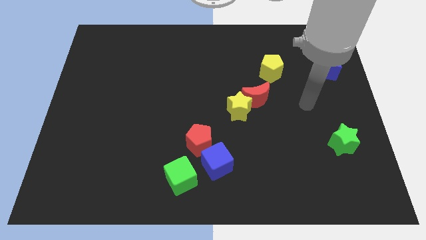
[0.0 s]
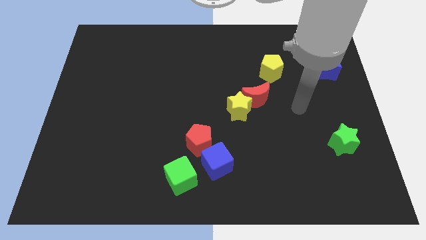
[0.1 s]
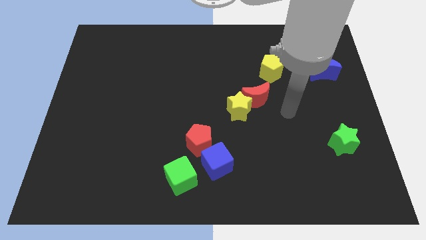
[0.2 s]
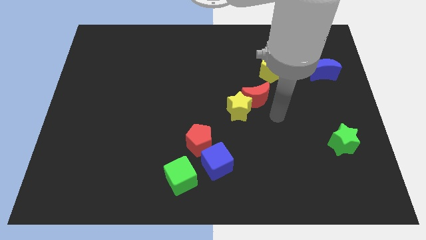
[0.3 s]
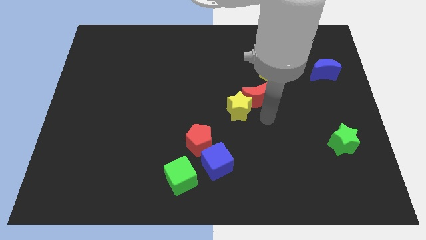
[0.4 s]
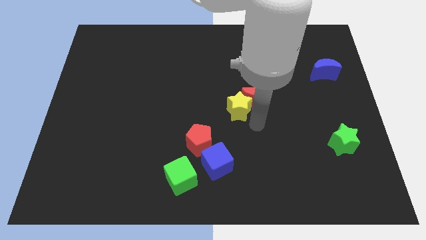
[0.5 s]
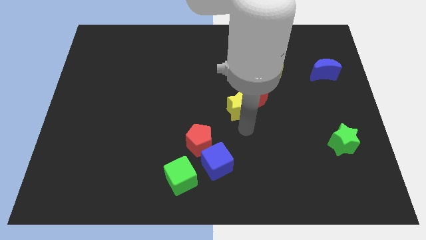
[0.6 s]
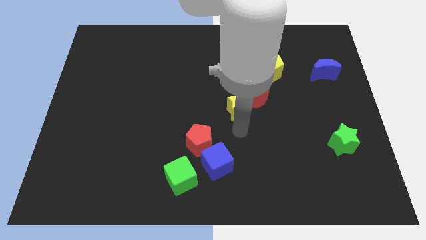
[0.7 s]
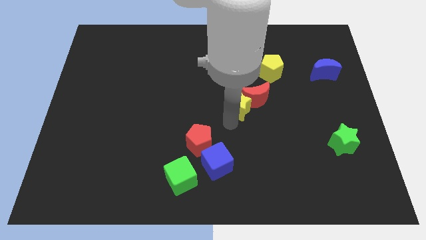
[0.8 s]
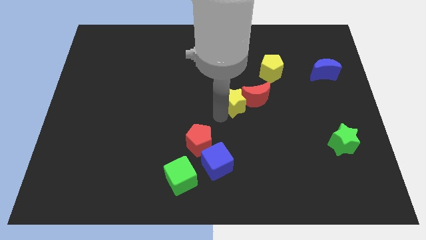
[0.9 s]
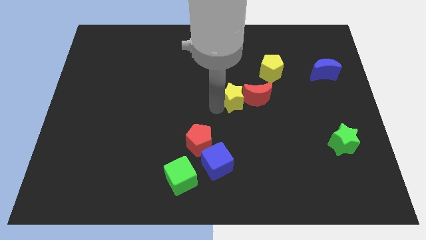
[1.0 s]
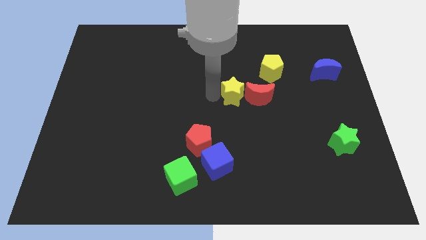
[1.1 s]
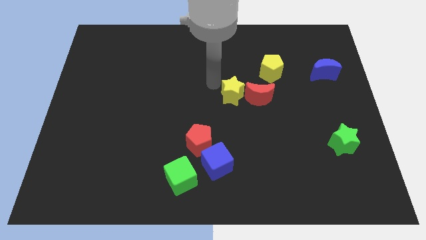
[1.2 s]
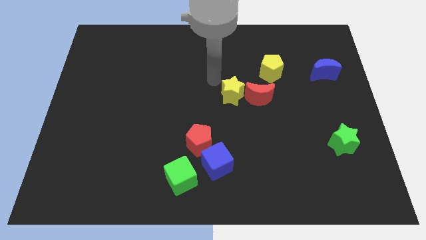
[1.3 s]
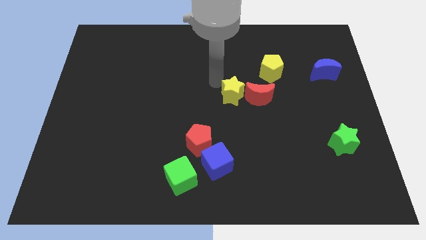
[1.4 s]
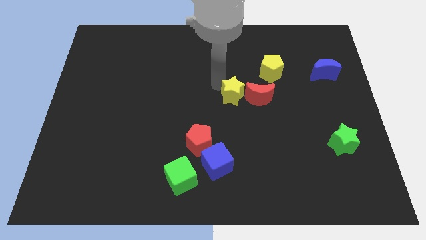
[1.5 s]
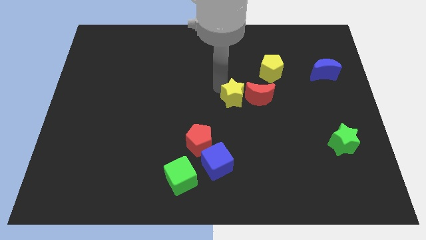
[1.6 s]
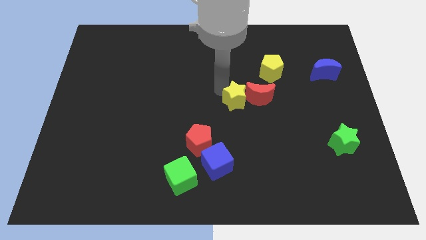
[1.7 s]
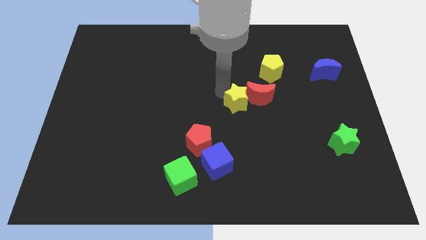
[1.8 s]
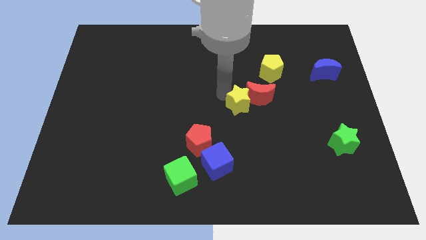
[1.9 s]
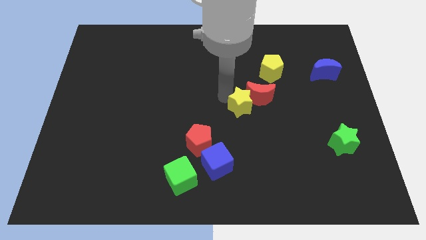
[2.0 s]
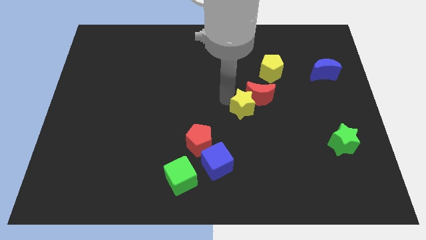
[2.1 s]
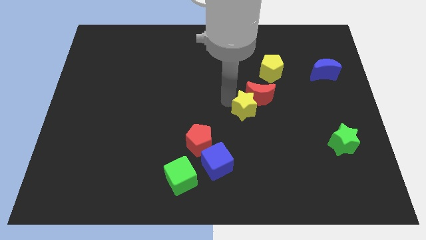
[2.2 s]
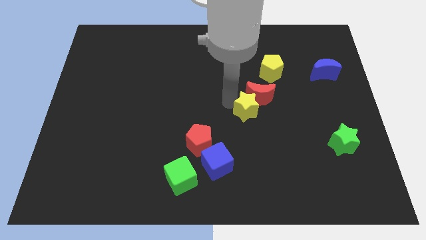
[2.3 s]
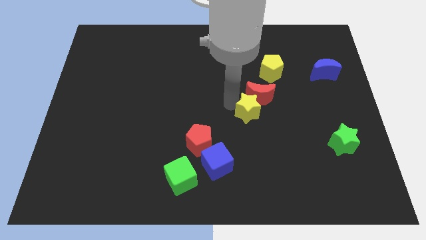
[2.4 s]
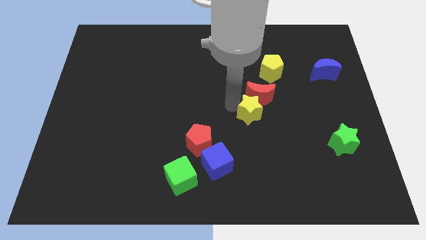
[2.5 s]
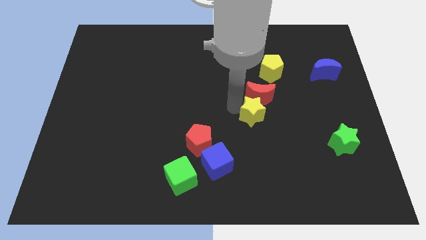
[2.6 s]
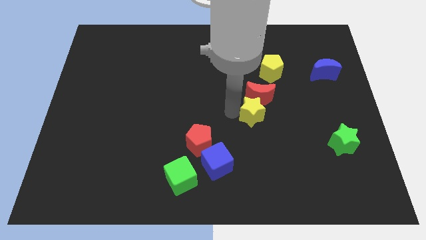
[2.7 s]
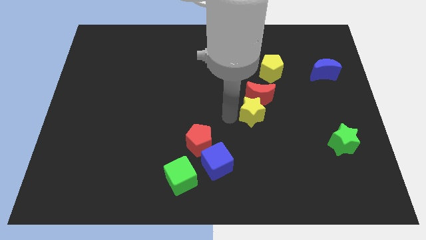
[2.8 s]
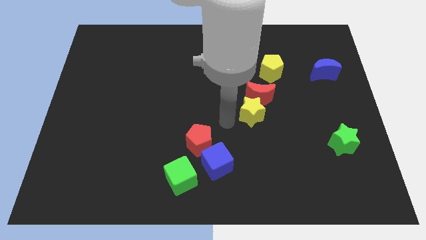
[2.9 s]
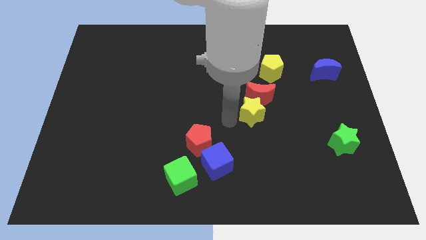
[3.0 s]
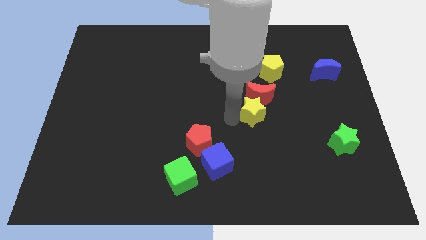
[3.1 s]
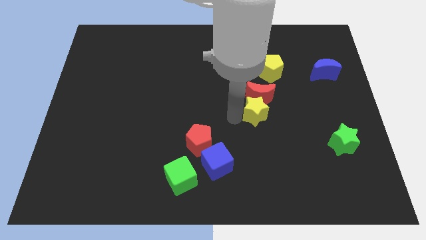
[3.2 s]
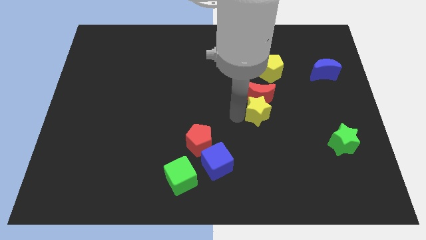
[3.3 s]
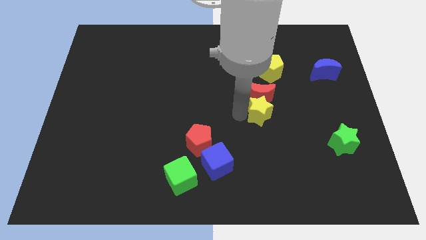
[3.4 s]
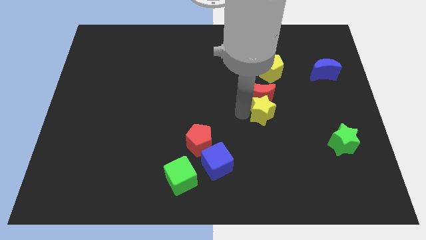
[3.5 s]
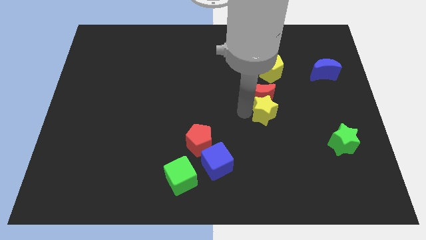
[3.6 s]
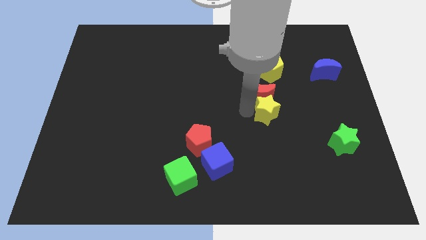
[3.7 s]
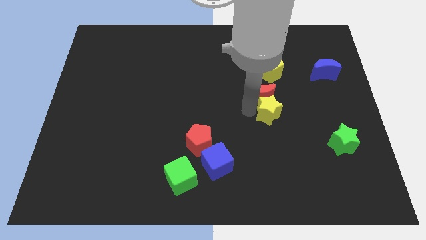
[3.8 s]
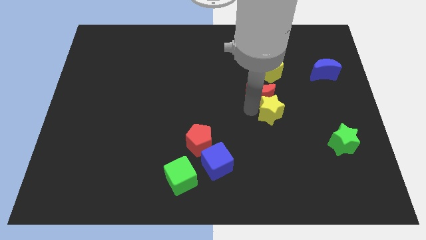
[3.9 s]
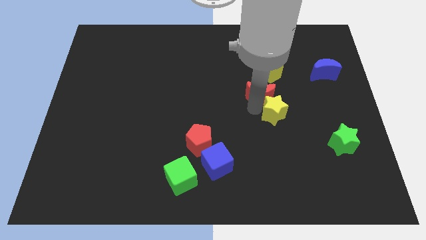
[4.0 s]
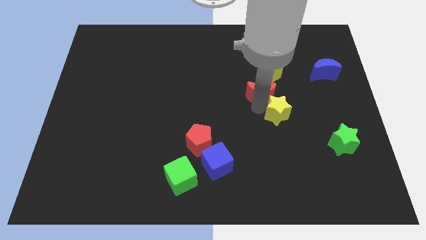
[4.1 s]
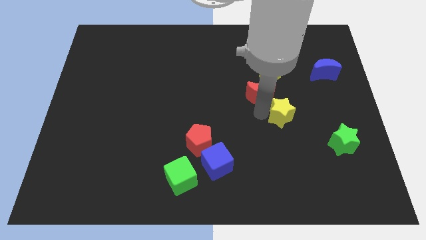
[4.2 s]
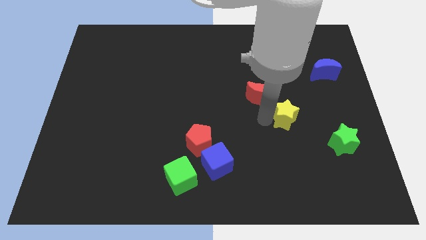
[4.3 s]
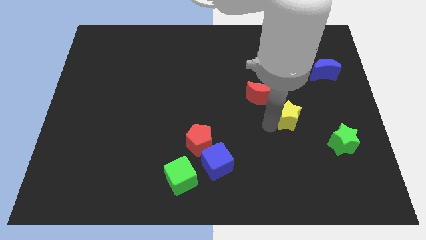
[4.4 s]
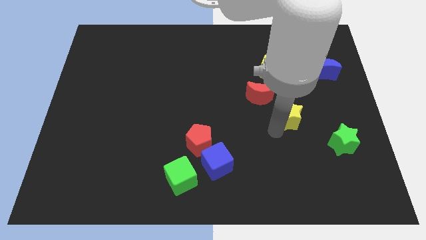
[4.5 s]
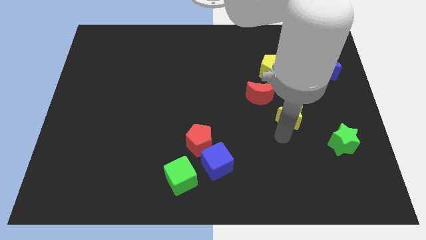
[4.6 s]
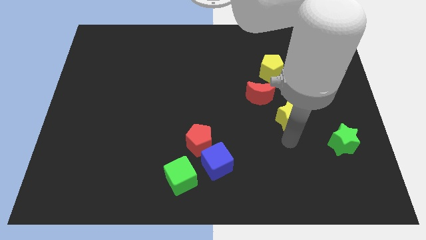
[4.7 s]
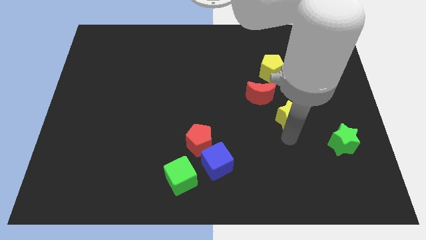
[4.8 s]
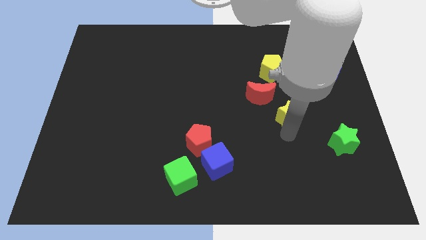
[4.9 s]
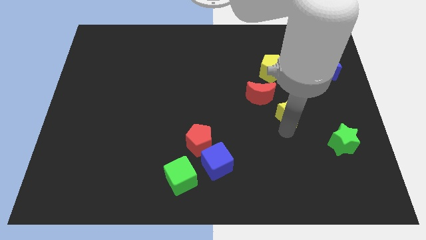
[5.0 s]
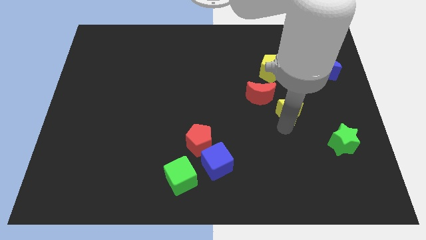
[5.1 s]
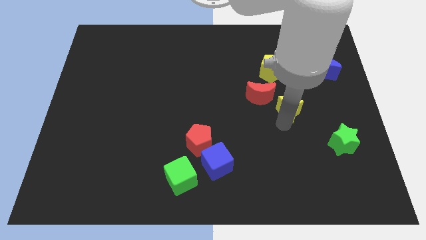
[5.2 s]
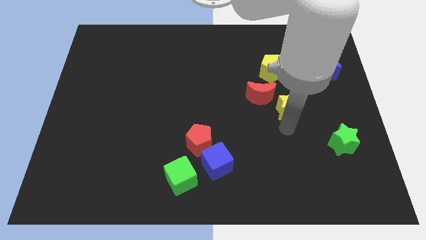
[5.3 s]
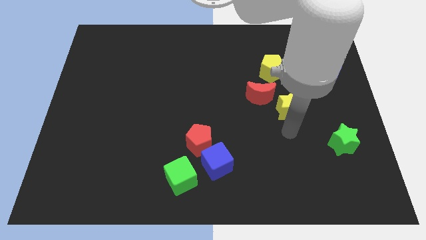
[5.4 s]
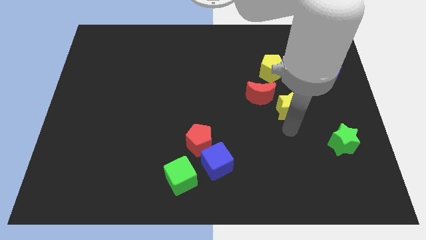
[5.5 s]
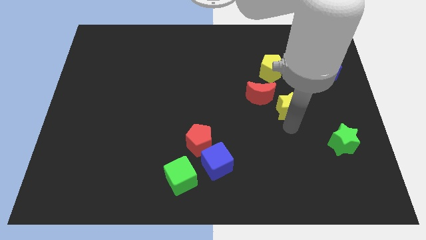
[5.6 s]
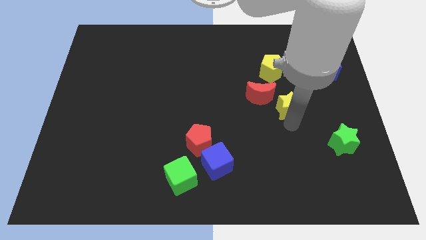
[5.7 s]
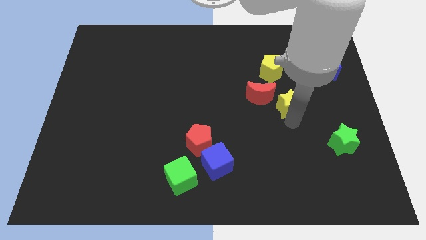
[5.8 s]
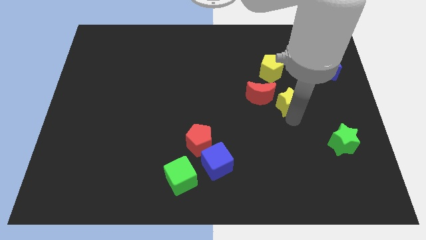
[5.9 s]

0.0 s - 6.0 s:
slide the yellow star diagonally upwards and to the right somewhat

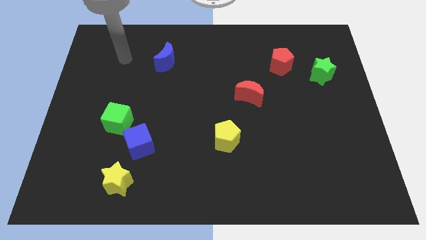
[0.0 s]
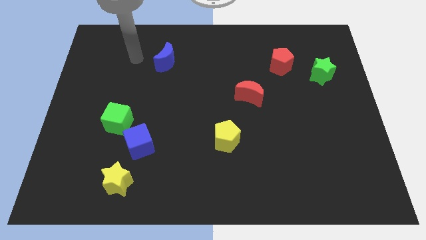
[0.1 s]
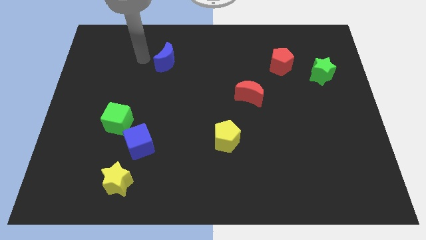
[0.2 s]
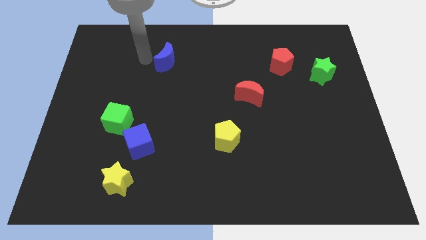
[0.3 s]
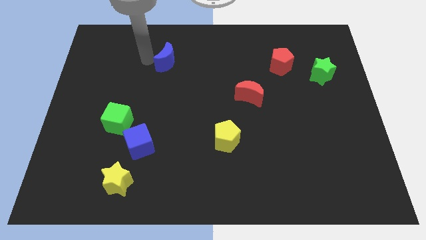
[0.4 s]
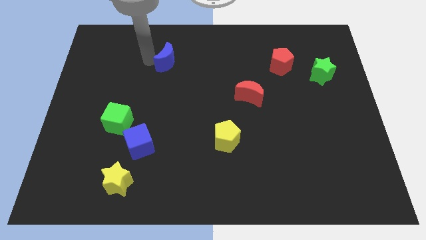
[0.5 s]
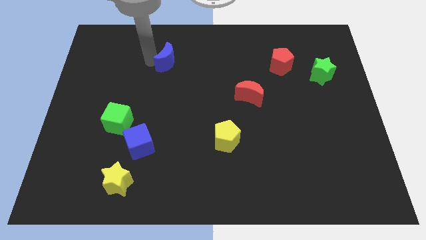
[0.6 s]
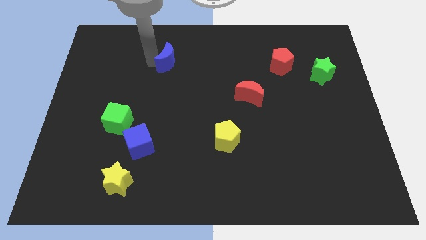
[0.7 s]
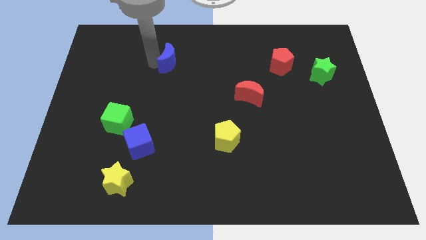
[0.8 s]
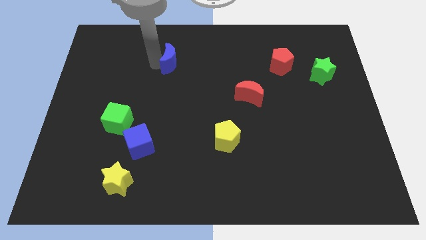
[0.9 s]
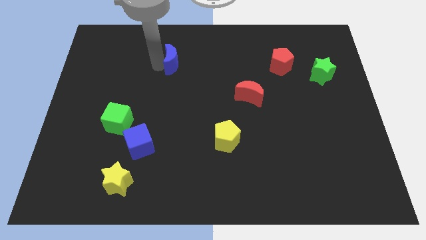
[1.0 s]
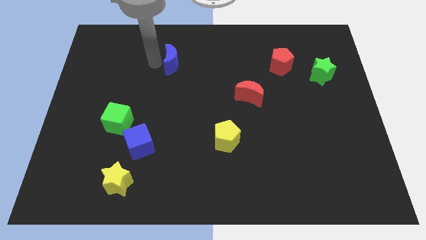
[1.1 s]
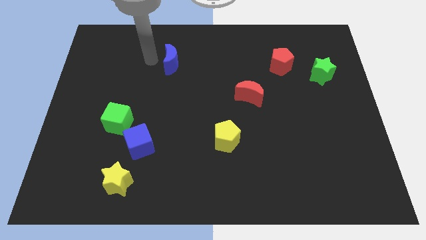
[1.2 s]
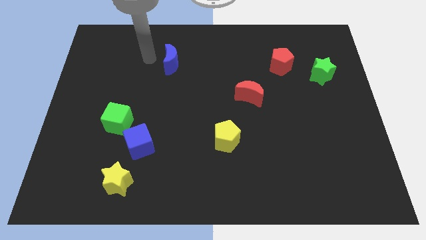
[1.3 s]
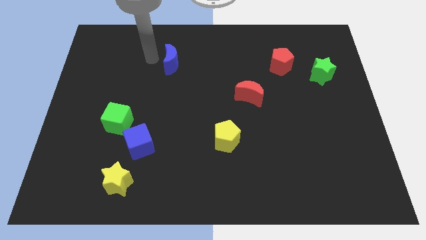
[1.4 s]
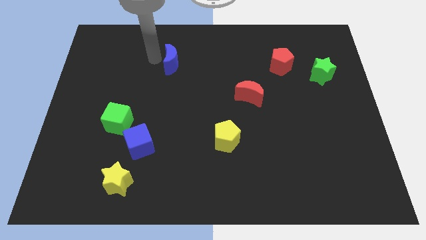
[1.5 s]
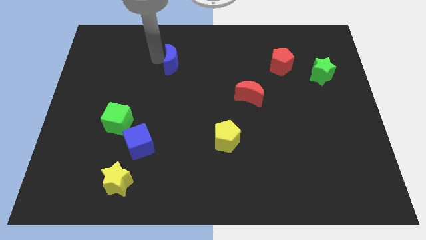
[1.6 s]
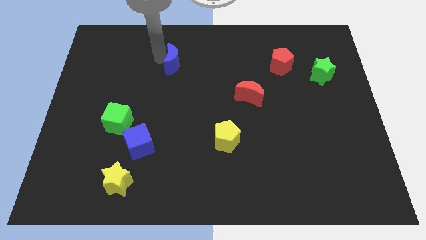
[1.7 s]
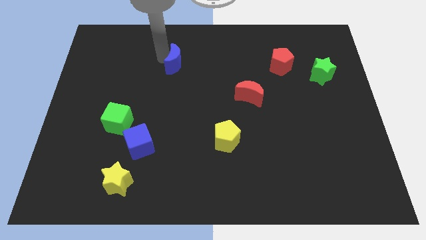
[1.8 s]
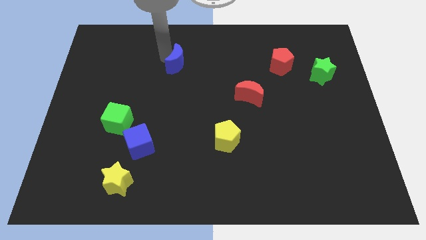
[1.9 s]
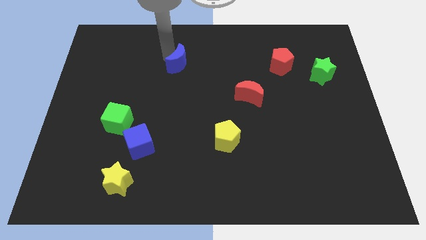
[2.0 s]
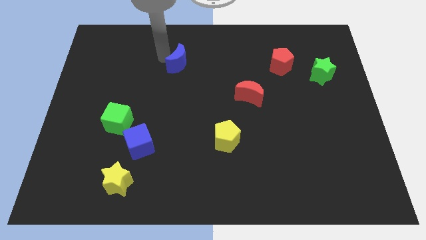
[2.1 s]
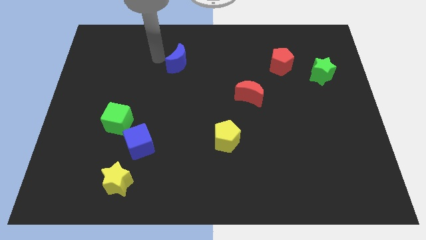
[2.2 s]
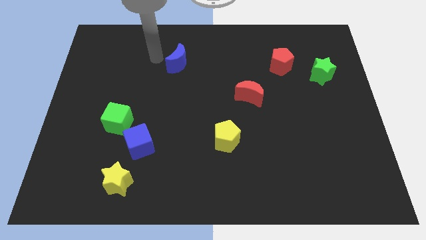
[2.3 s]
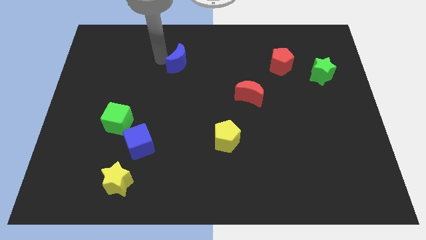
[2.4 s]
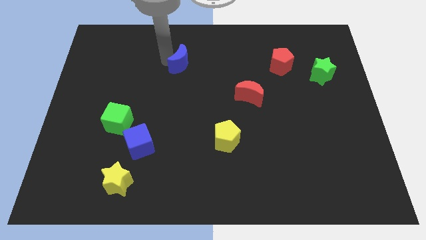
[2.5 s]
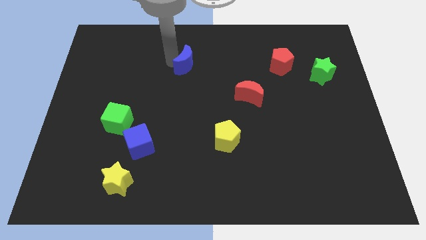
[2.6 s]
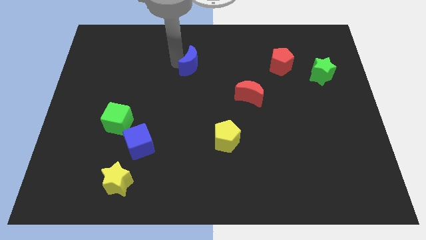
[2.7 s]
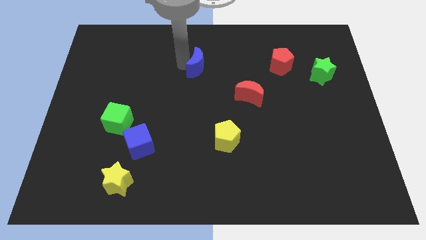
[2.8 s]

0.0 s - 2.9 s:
slightly move the blue moon to the right
